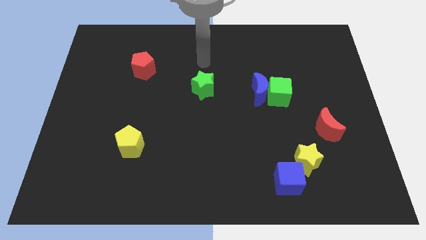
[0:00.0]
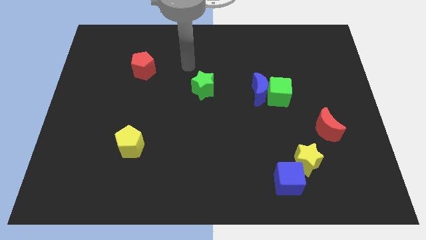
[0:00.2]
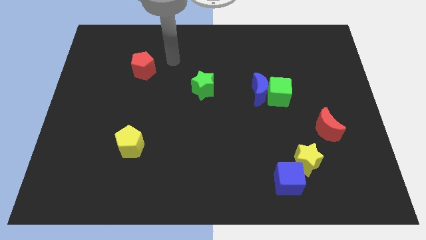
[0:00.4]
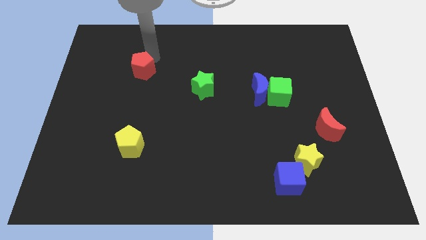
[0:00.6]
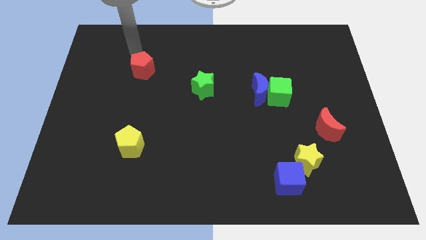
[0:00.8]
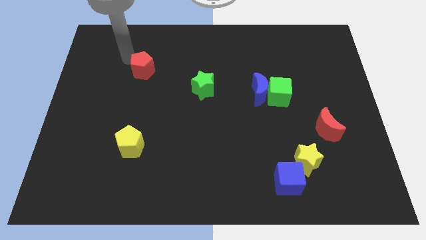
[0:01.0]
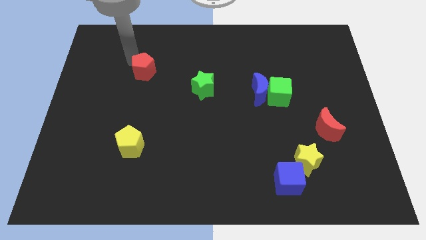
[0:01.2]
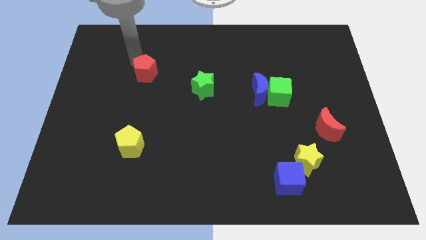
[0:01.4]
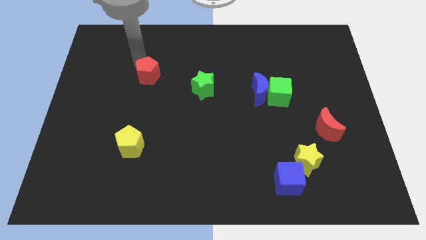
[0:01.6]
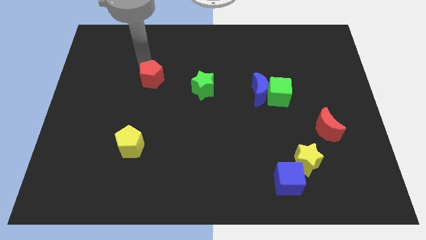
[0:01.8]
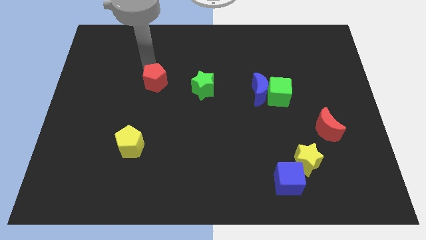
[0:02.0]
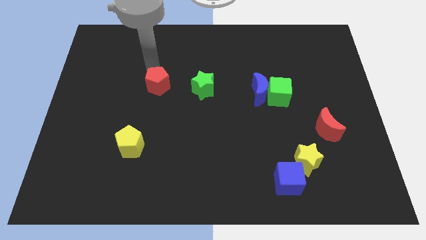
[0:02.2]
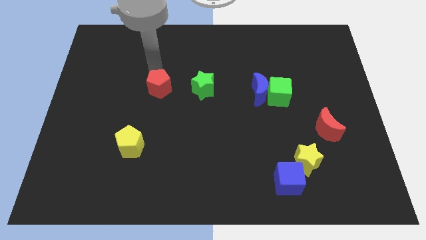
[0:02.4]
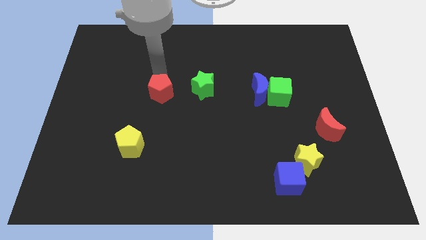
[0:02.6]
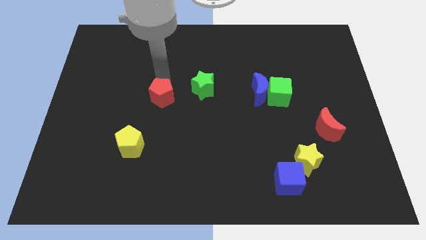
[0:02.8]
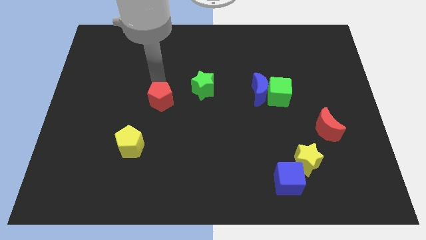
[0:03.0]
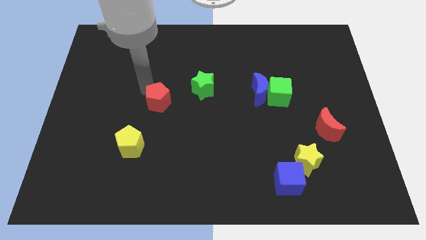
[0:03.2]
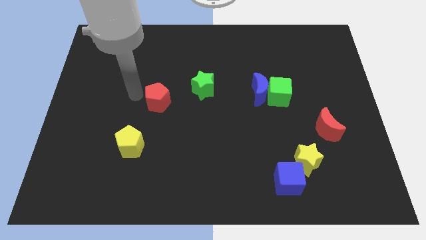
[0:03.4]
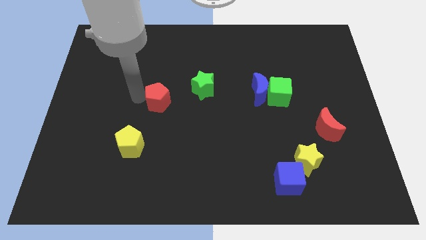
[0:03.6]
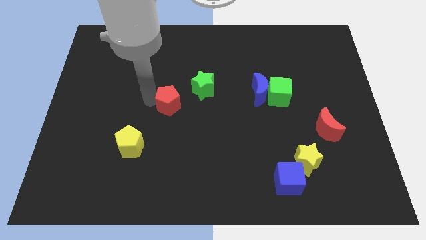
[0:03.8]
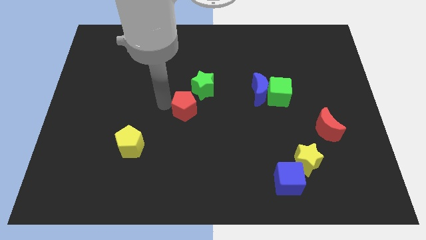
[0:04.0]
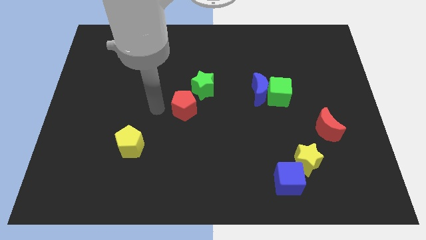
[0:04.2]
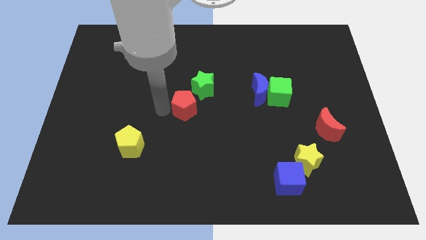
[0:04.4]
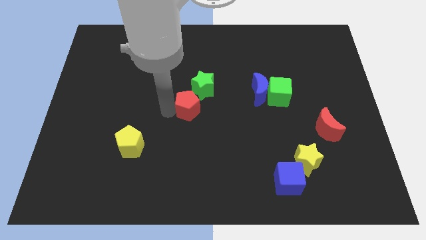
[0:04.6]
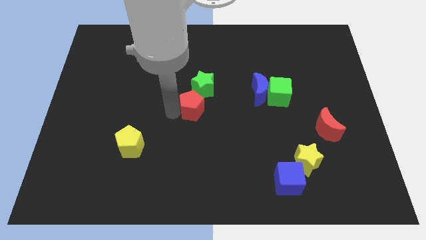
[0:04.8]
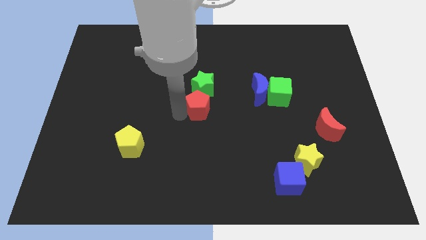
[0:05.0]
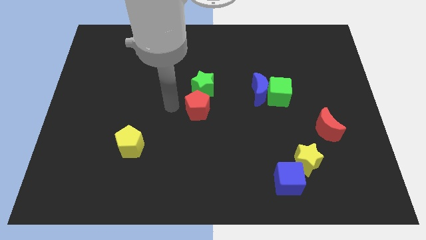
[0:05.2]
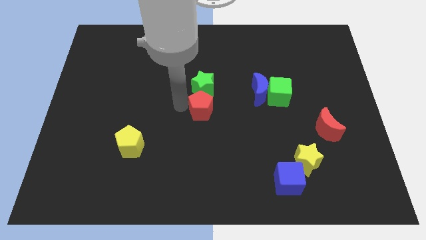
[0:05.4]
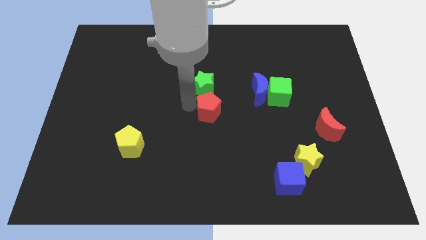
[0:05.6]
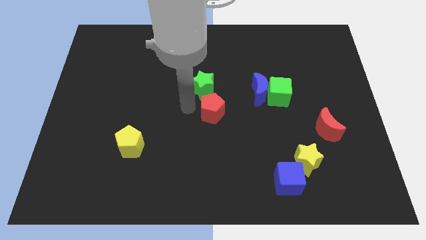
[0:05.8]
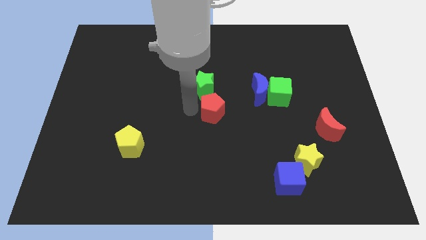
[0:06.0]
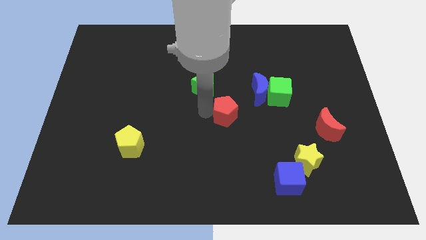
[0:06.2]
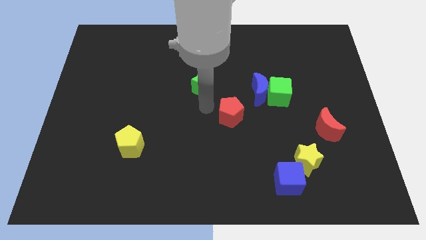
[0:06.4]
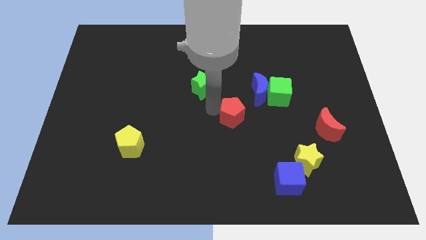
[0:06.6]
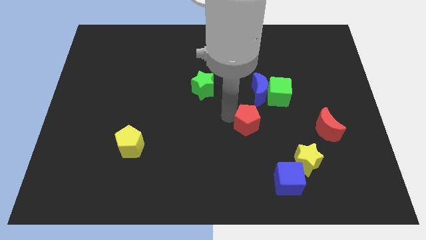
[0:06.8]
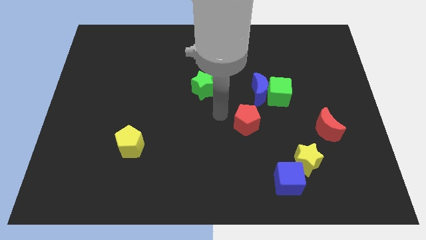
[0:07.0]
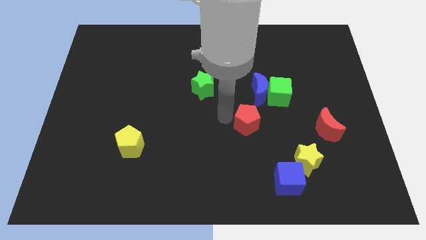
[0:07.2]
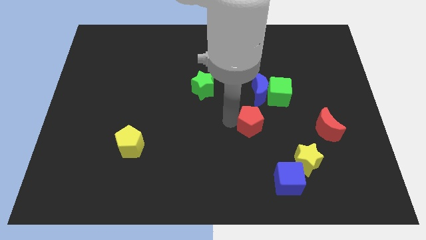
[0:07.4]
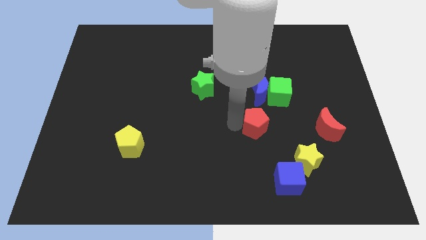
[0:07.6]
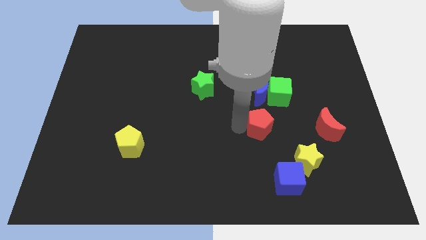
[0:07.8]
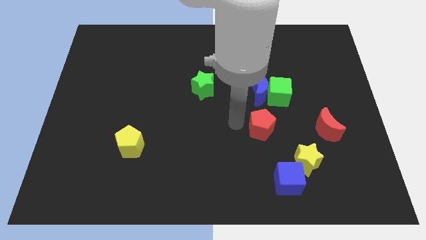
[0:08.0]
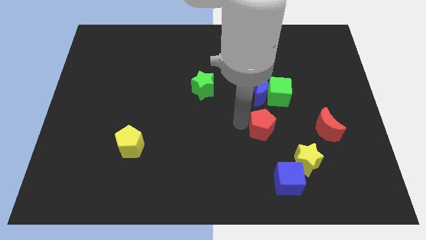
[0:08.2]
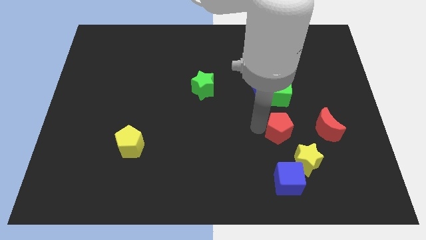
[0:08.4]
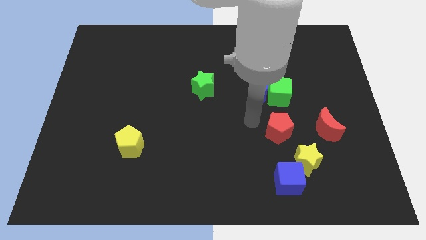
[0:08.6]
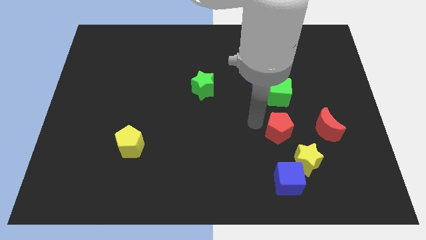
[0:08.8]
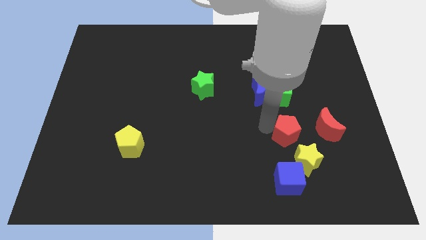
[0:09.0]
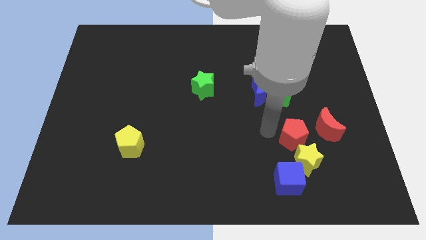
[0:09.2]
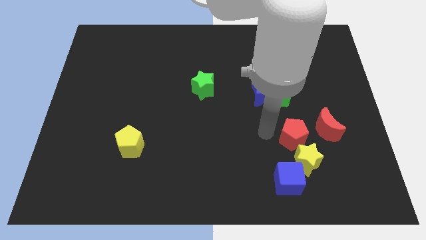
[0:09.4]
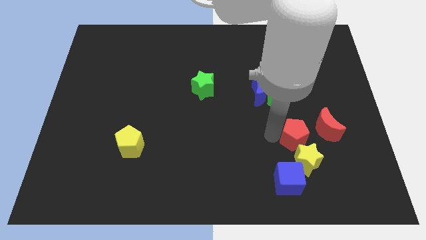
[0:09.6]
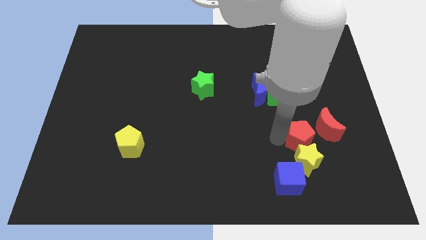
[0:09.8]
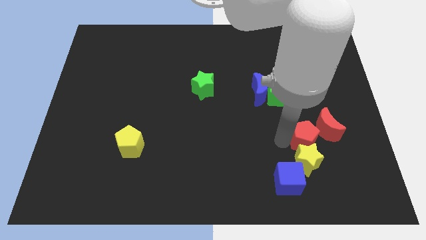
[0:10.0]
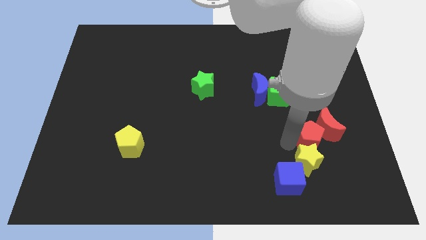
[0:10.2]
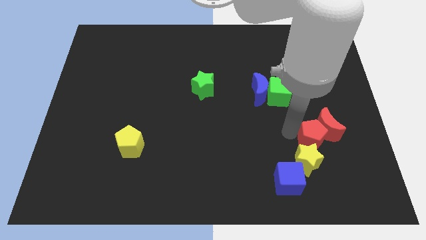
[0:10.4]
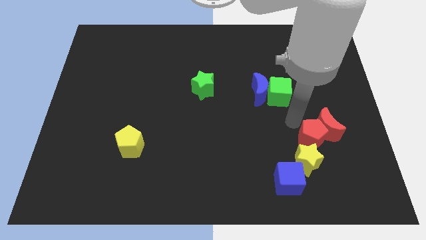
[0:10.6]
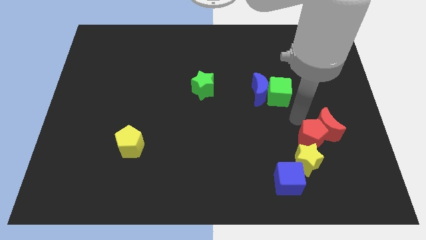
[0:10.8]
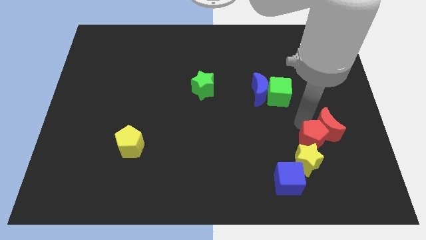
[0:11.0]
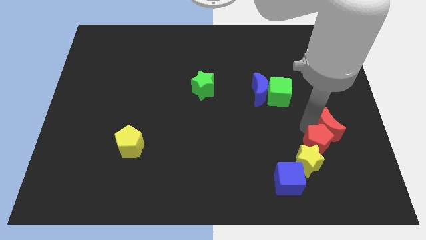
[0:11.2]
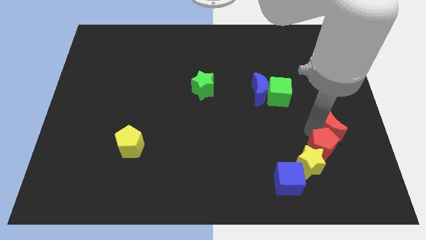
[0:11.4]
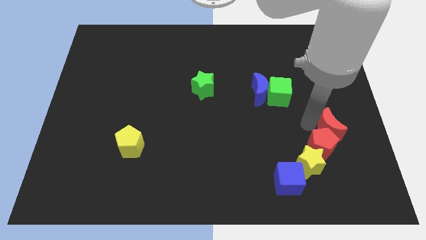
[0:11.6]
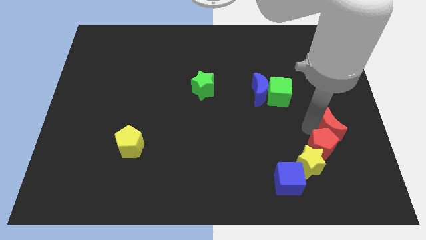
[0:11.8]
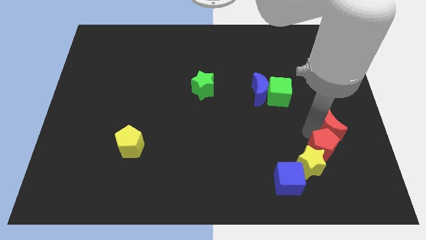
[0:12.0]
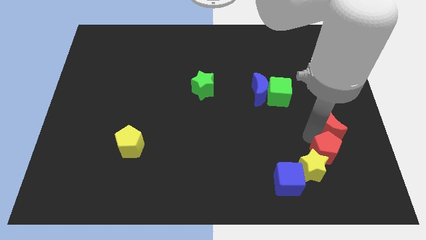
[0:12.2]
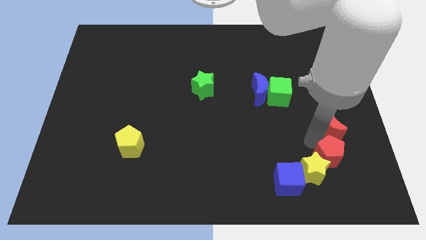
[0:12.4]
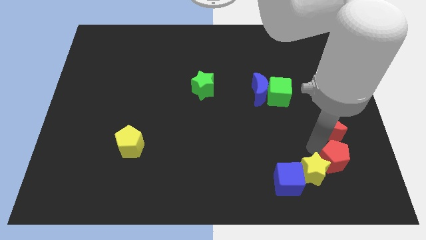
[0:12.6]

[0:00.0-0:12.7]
push the red pentagon to the right of the blue cube

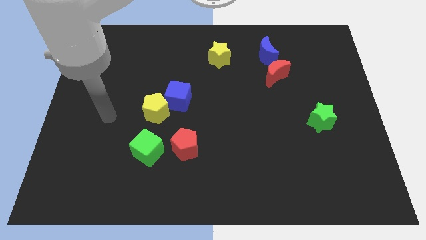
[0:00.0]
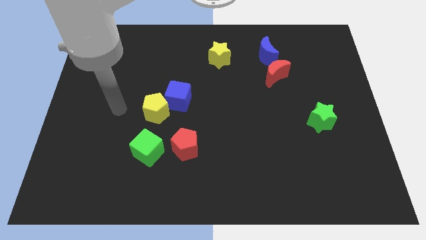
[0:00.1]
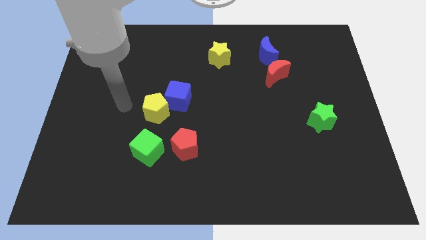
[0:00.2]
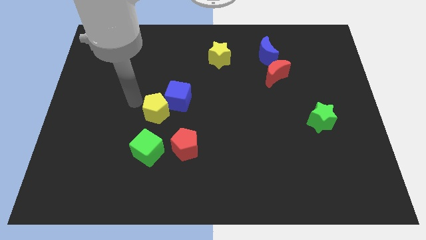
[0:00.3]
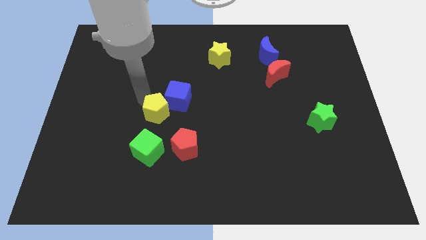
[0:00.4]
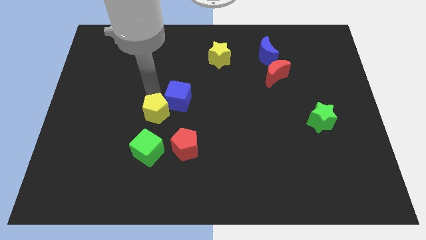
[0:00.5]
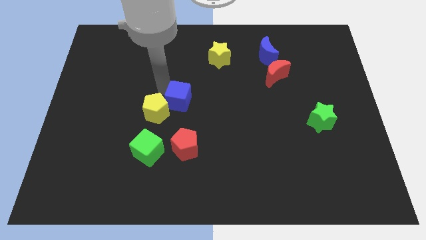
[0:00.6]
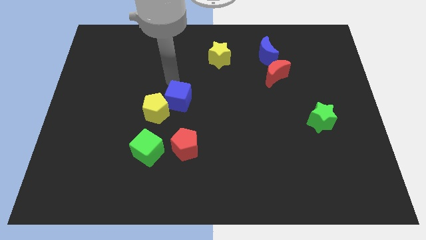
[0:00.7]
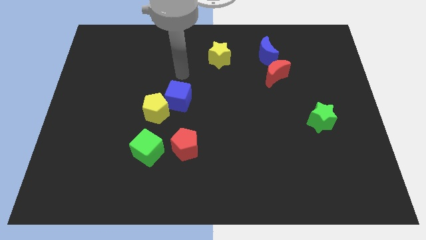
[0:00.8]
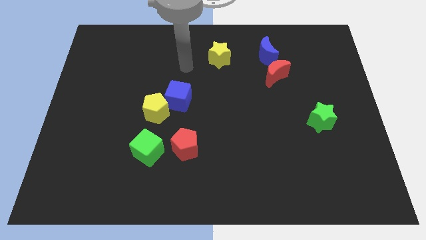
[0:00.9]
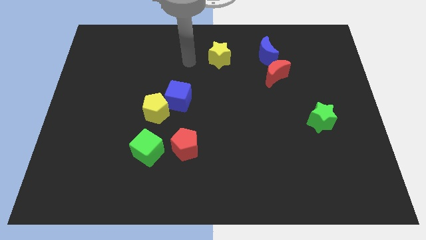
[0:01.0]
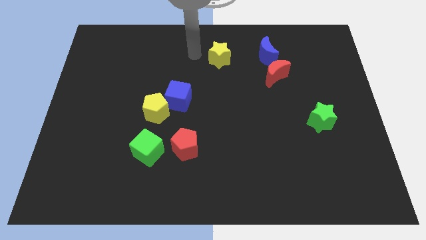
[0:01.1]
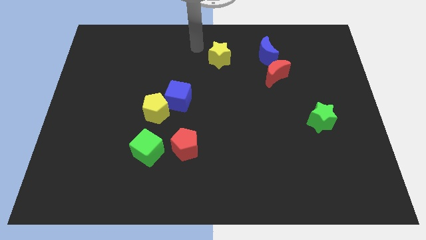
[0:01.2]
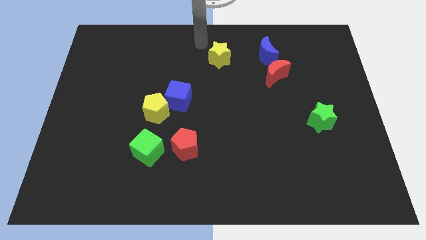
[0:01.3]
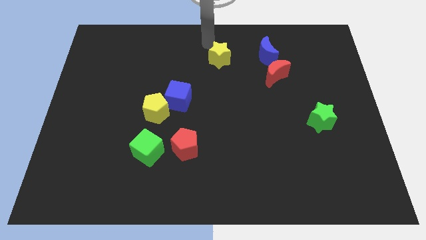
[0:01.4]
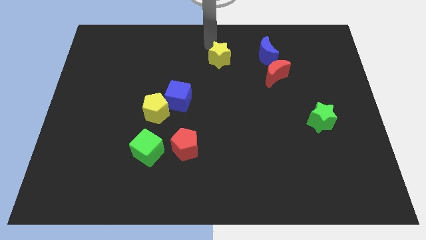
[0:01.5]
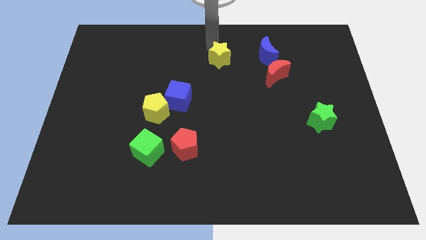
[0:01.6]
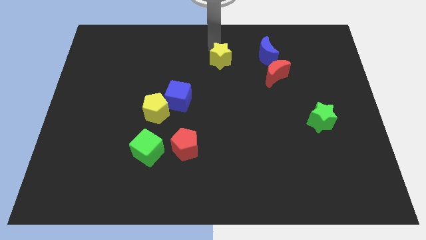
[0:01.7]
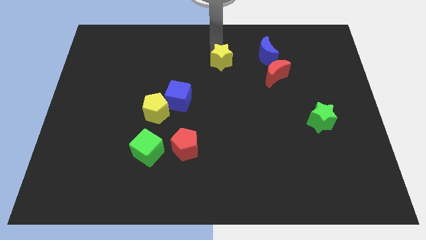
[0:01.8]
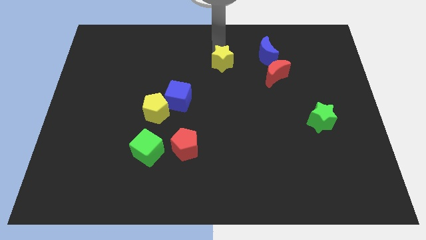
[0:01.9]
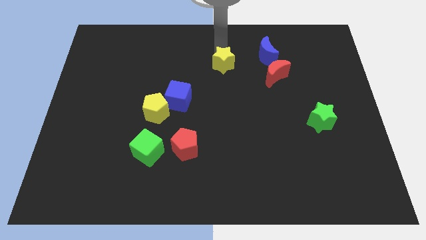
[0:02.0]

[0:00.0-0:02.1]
move the yellow star just left of the red moon
